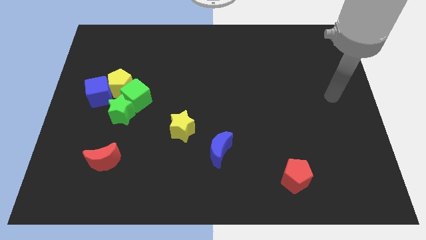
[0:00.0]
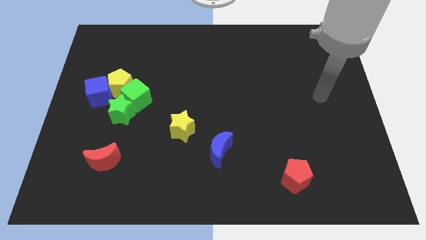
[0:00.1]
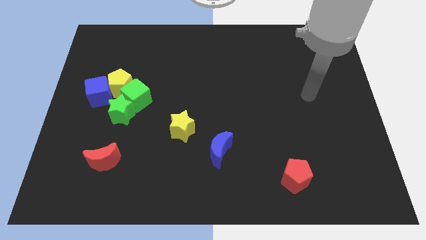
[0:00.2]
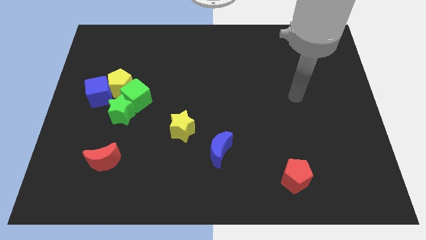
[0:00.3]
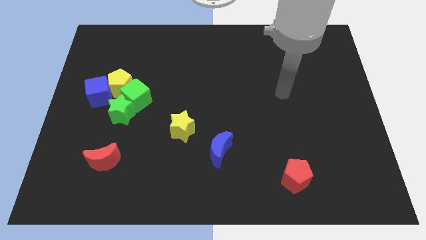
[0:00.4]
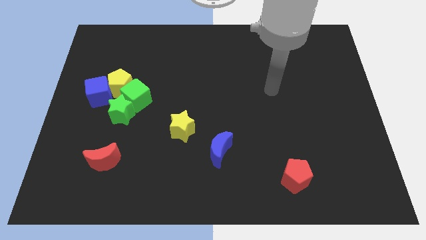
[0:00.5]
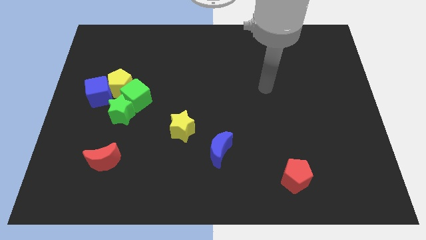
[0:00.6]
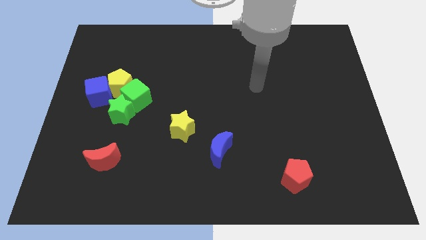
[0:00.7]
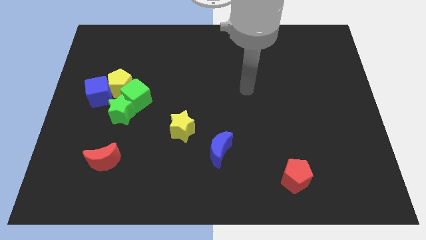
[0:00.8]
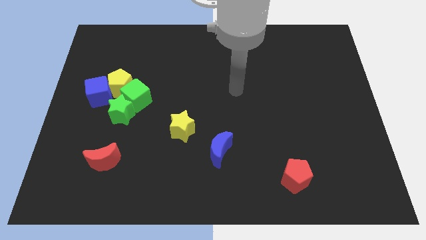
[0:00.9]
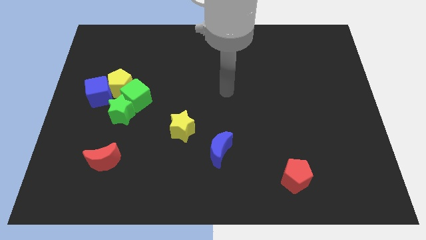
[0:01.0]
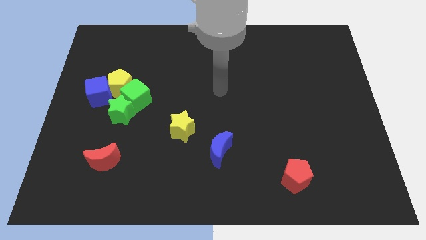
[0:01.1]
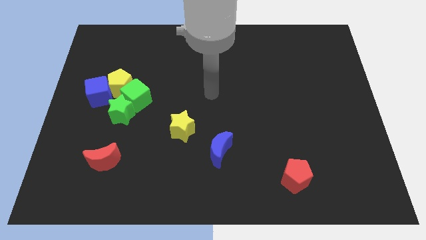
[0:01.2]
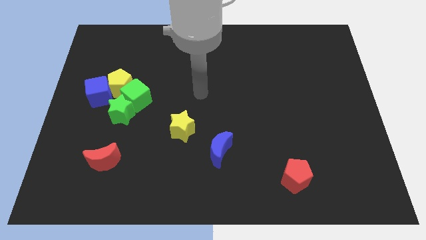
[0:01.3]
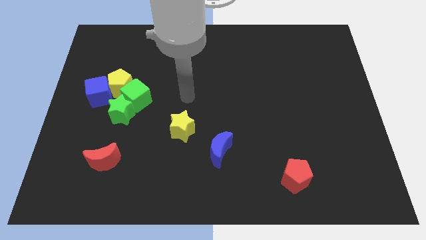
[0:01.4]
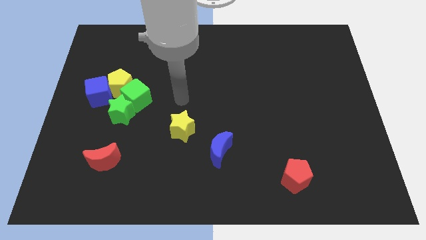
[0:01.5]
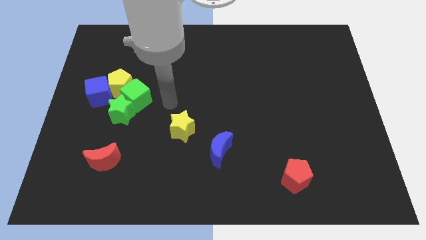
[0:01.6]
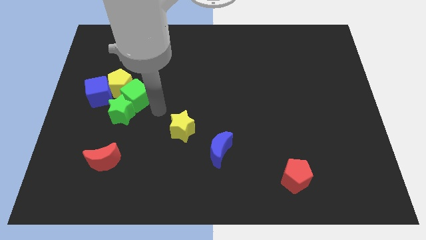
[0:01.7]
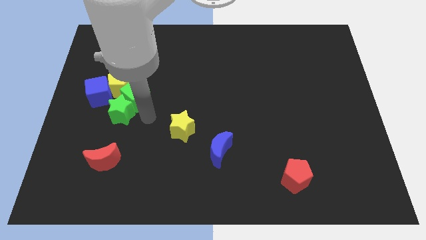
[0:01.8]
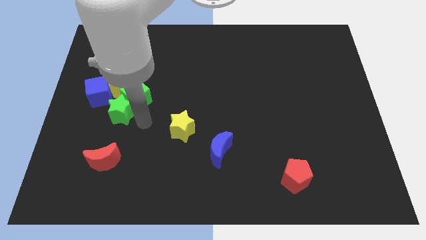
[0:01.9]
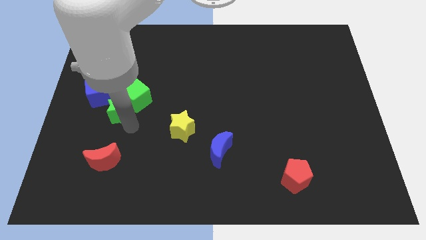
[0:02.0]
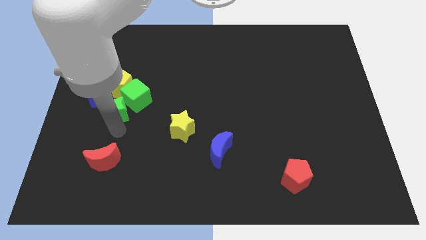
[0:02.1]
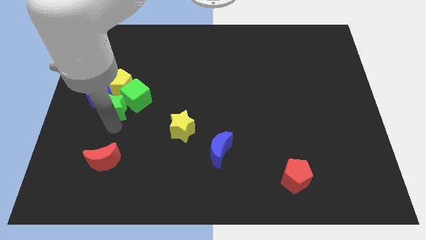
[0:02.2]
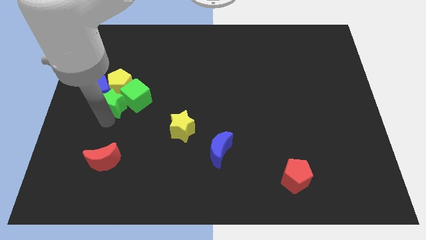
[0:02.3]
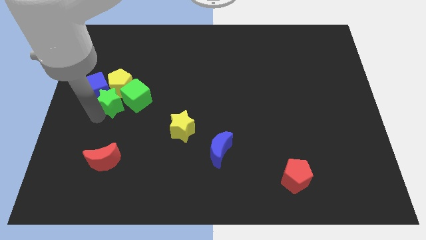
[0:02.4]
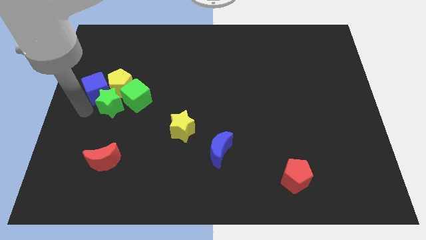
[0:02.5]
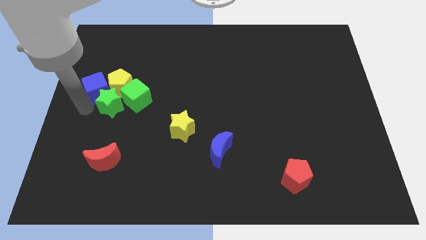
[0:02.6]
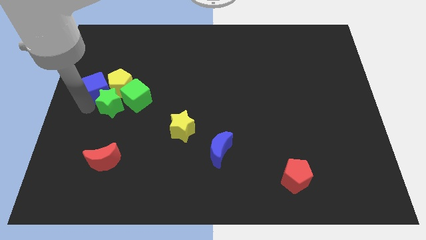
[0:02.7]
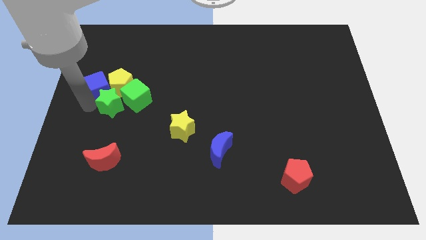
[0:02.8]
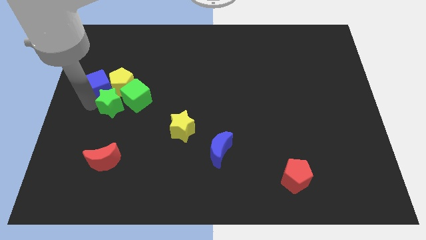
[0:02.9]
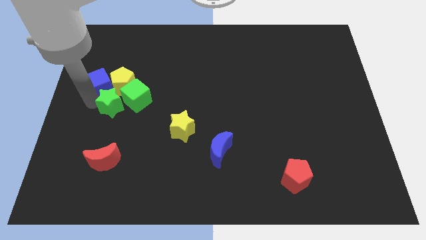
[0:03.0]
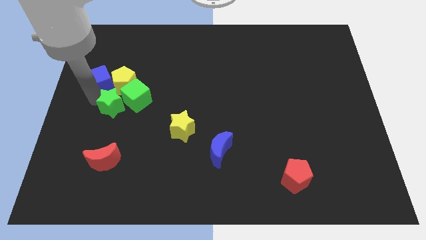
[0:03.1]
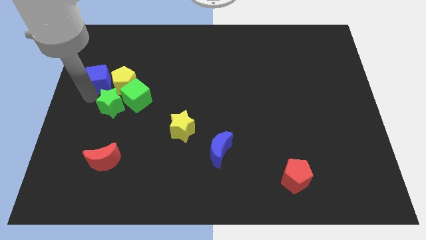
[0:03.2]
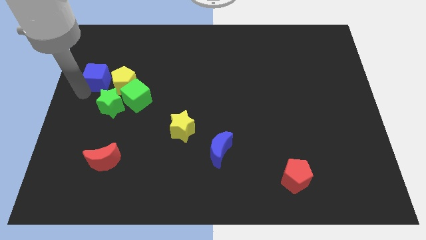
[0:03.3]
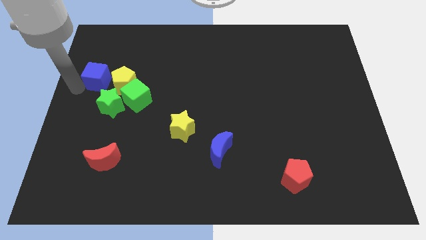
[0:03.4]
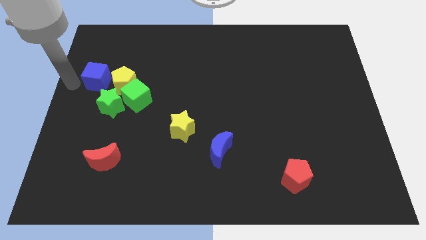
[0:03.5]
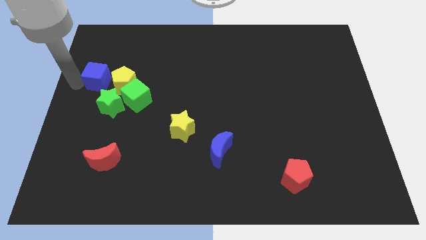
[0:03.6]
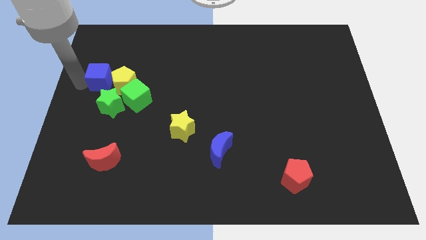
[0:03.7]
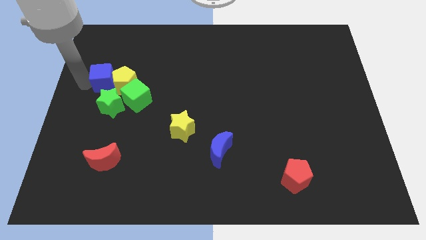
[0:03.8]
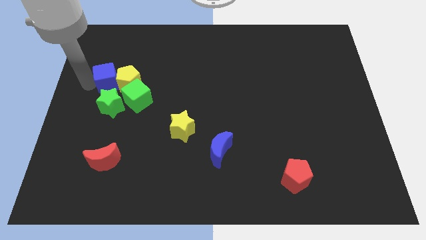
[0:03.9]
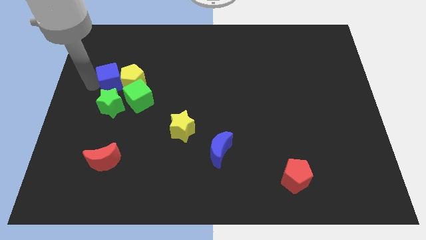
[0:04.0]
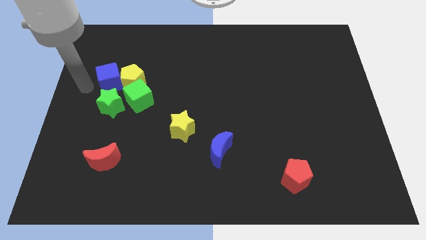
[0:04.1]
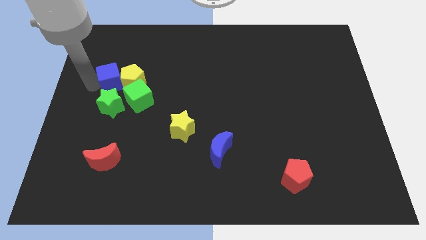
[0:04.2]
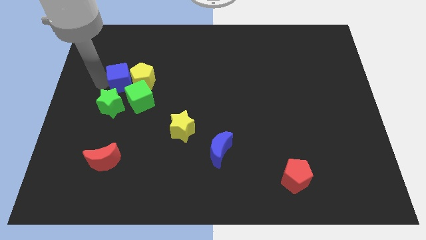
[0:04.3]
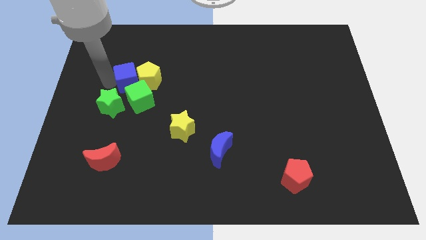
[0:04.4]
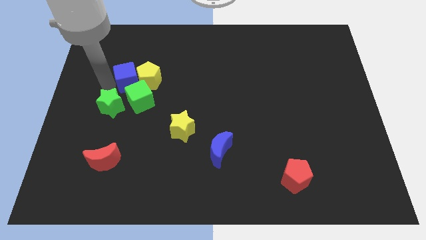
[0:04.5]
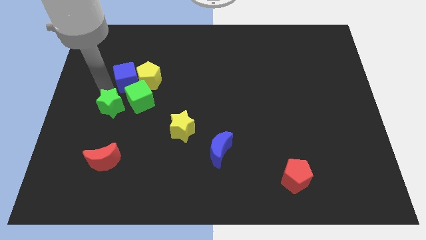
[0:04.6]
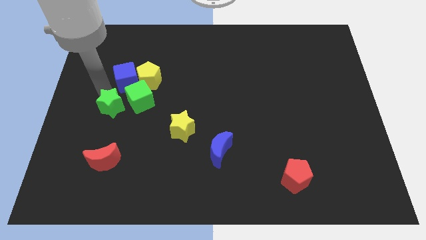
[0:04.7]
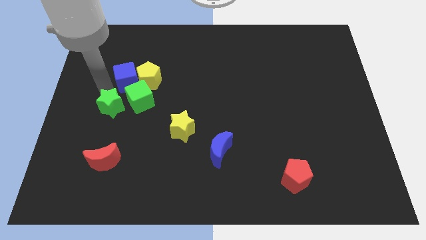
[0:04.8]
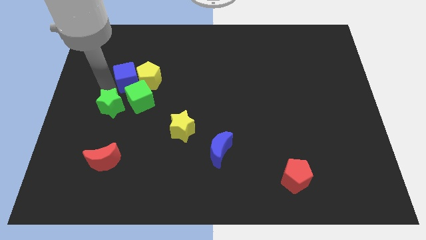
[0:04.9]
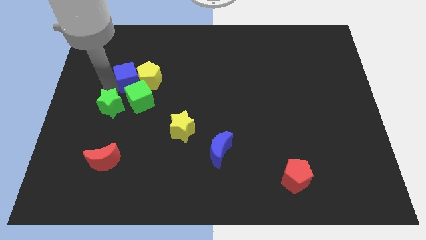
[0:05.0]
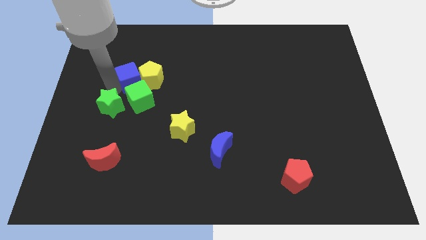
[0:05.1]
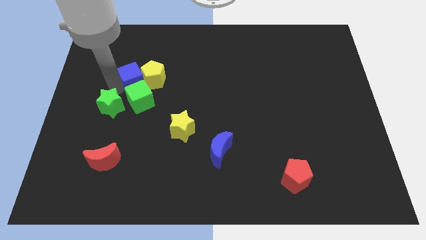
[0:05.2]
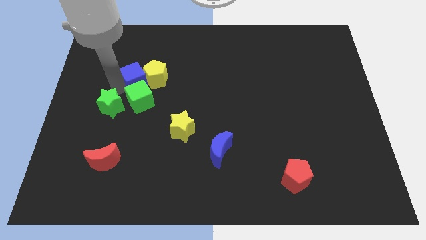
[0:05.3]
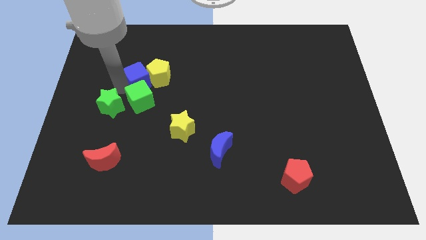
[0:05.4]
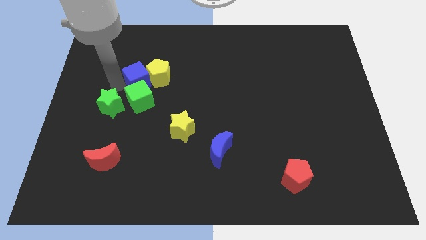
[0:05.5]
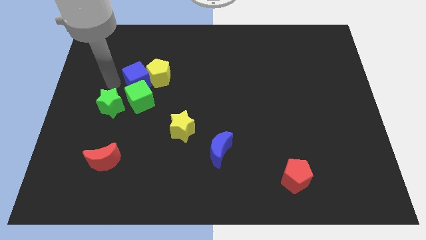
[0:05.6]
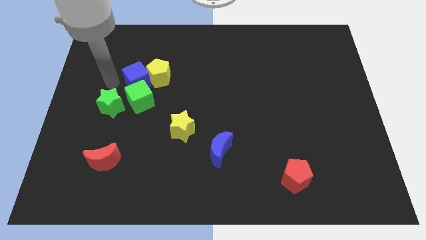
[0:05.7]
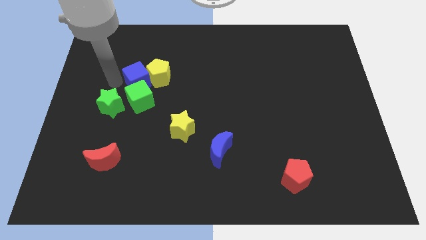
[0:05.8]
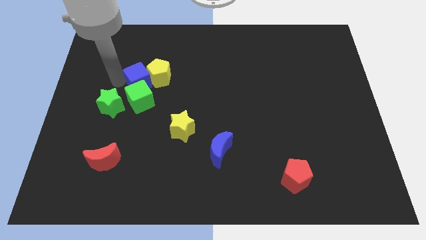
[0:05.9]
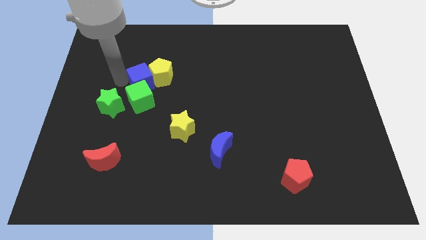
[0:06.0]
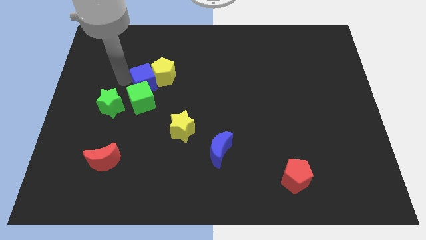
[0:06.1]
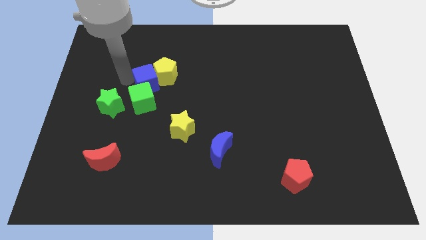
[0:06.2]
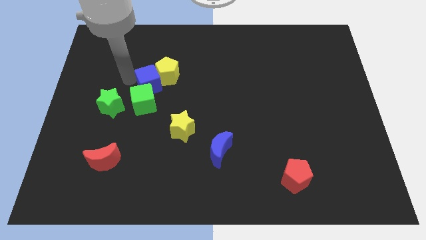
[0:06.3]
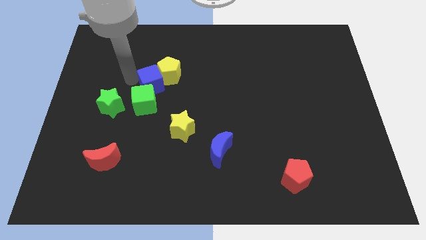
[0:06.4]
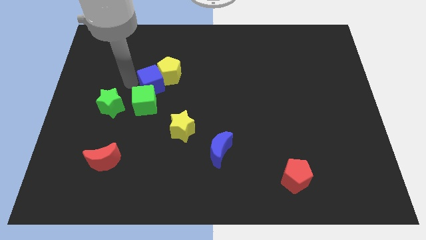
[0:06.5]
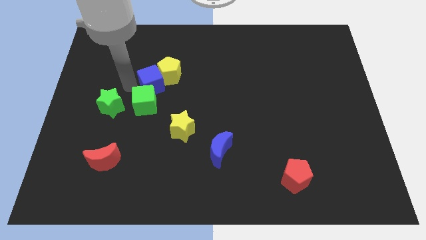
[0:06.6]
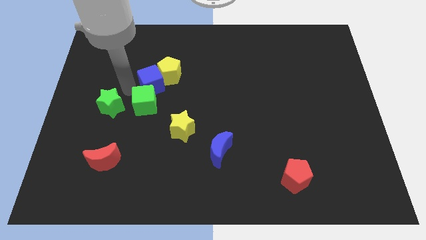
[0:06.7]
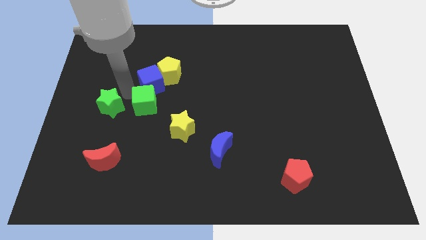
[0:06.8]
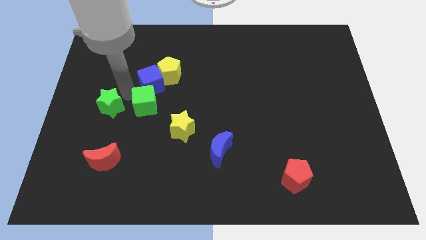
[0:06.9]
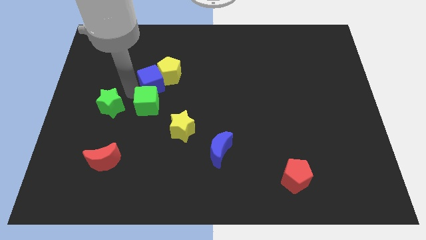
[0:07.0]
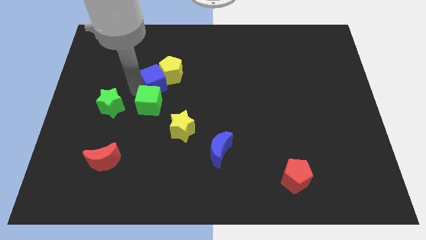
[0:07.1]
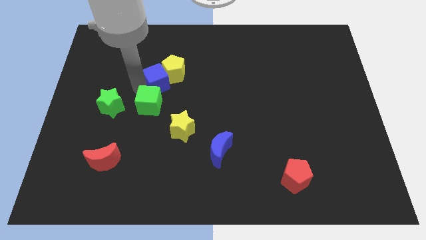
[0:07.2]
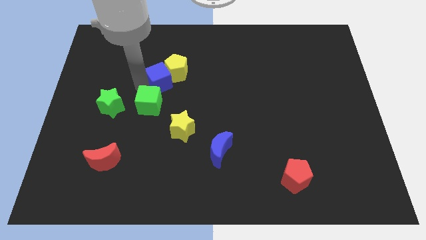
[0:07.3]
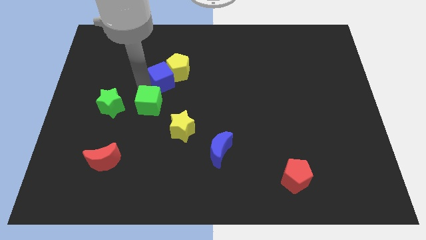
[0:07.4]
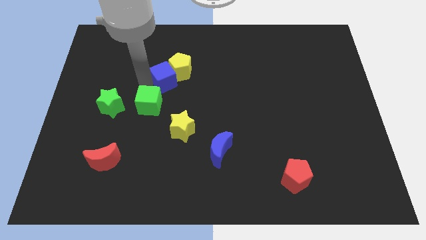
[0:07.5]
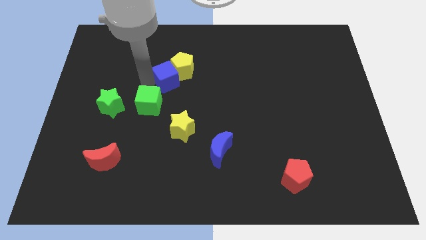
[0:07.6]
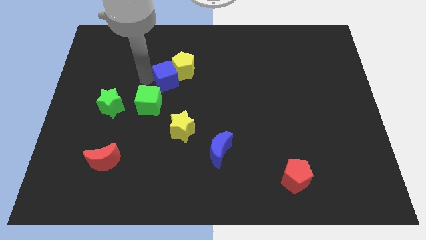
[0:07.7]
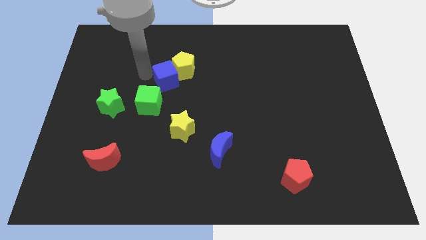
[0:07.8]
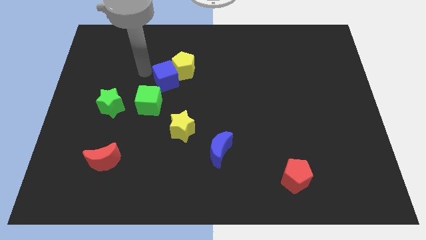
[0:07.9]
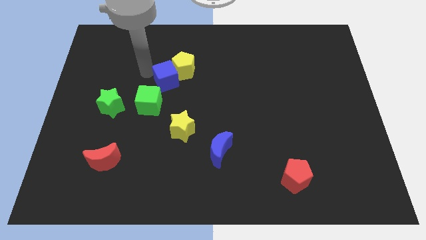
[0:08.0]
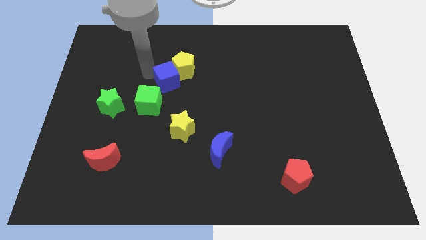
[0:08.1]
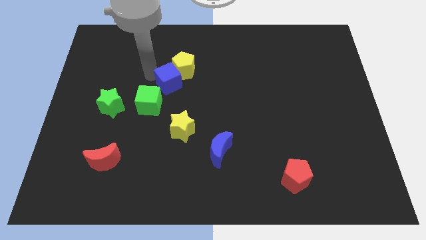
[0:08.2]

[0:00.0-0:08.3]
slide the blue cube to the center of the board
